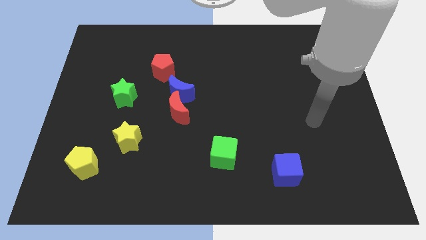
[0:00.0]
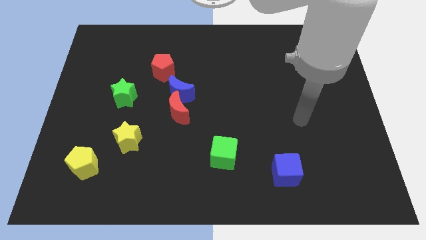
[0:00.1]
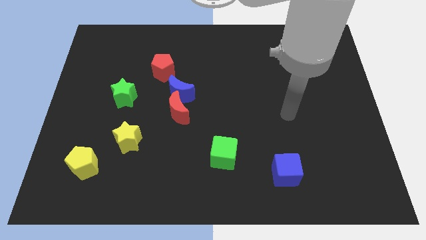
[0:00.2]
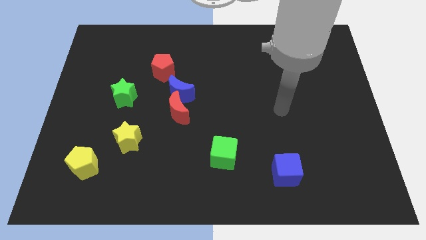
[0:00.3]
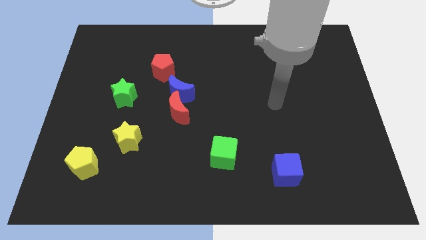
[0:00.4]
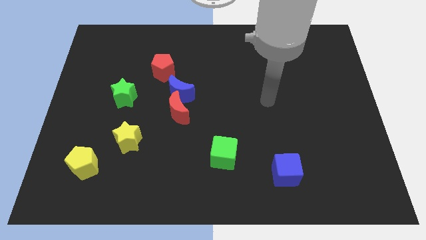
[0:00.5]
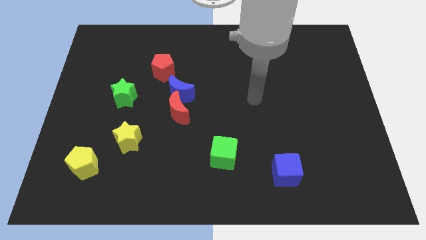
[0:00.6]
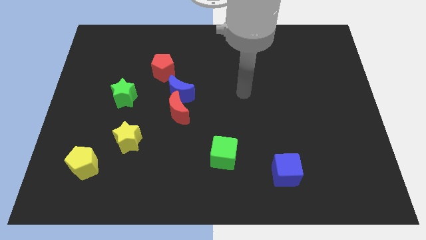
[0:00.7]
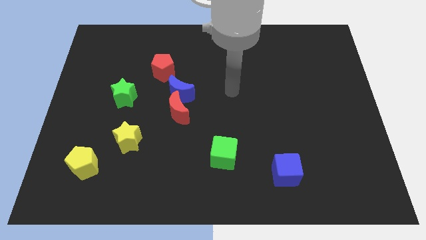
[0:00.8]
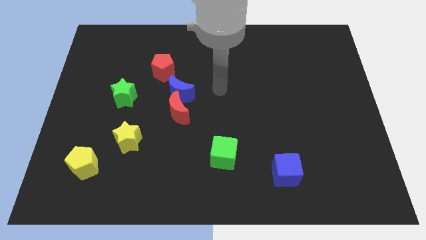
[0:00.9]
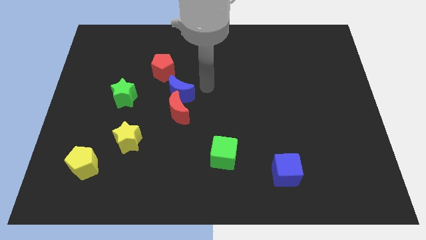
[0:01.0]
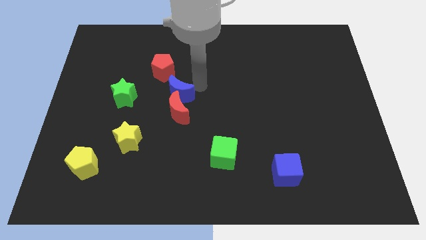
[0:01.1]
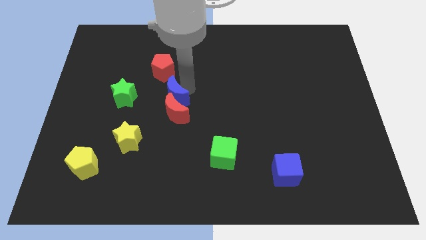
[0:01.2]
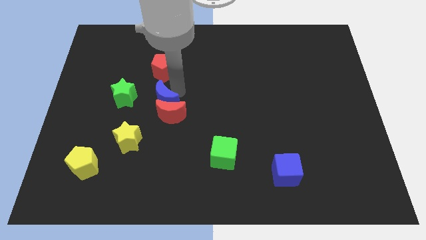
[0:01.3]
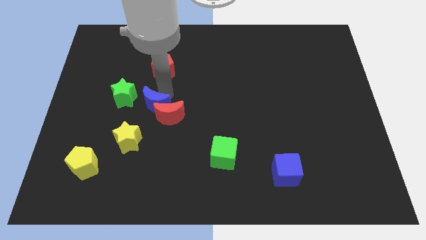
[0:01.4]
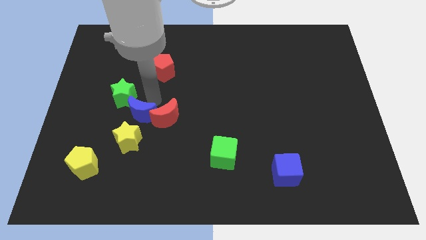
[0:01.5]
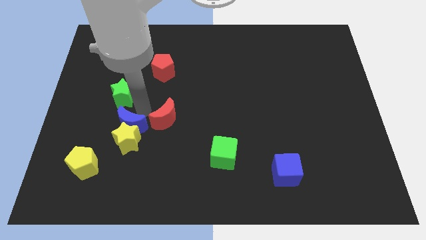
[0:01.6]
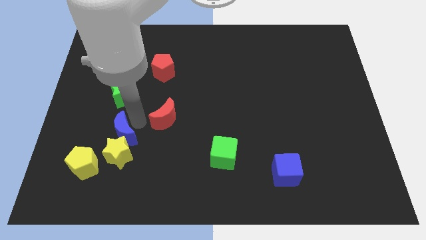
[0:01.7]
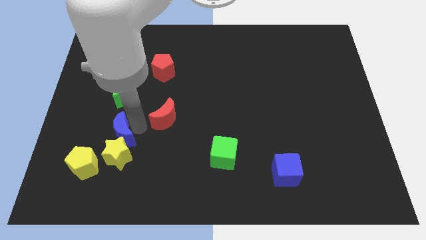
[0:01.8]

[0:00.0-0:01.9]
pull the red moon apart from the blue moon

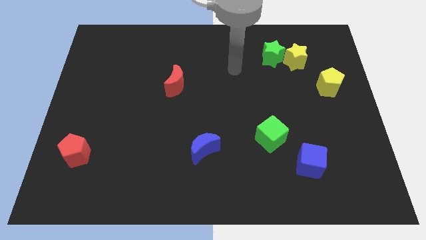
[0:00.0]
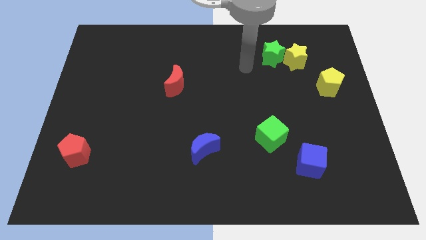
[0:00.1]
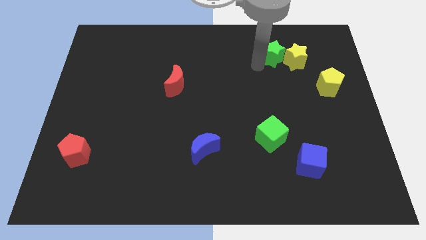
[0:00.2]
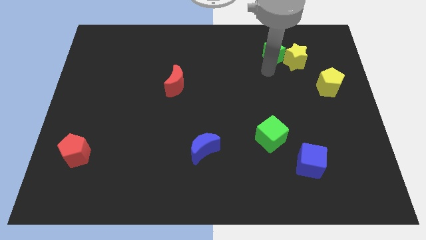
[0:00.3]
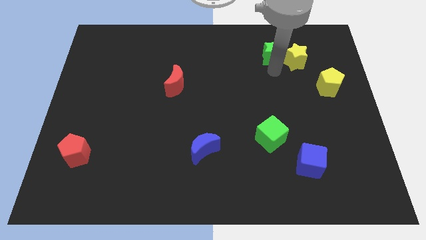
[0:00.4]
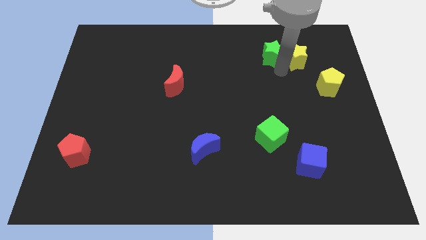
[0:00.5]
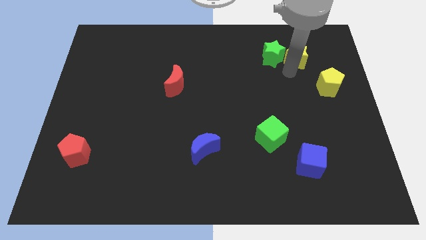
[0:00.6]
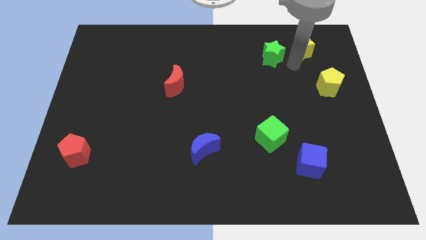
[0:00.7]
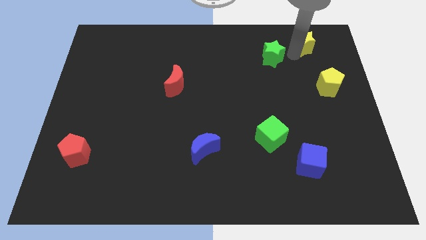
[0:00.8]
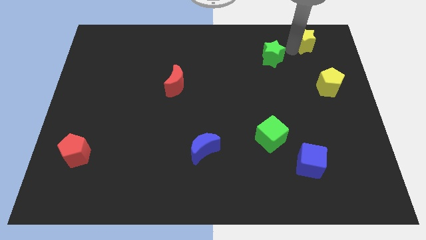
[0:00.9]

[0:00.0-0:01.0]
pull the green star apart from the yellow star

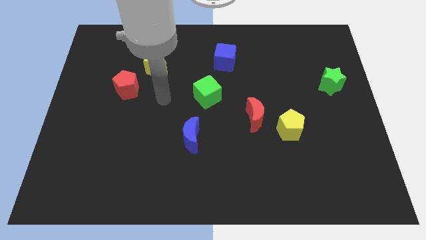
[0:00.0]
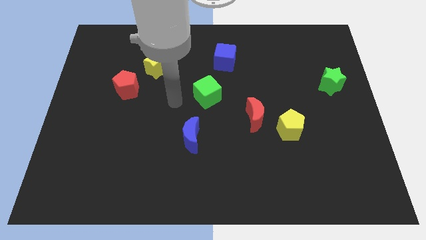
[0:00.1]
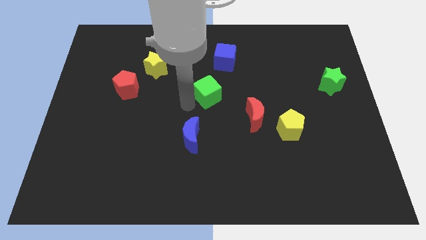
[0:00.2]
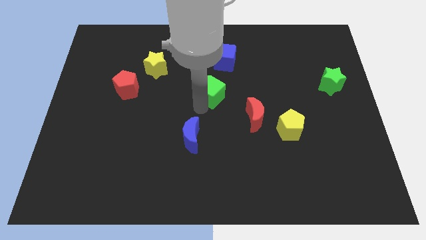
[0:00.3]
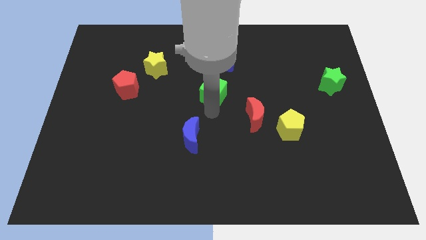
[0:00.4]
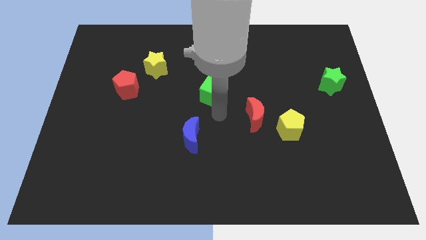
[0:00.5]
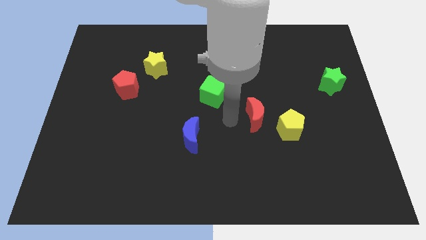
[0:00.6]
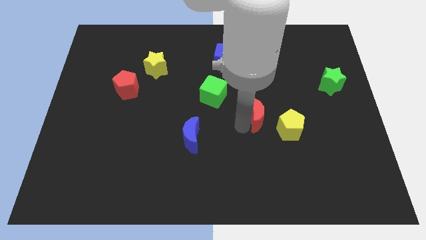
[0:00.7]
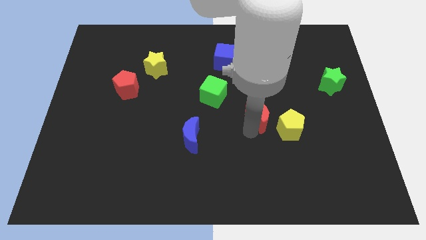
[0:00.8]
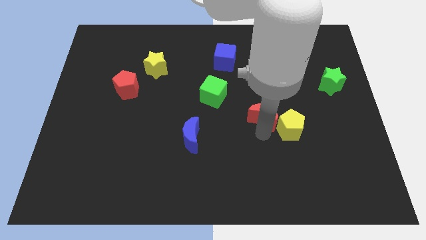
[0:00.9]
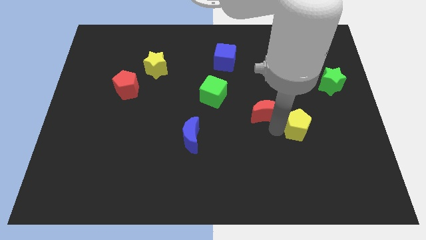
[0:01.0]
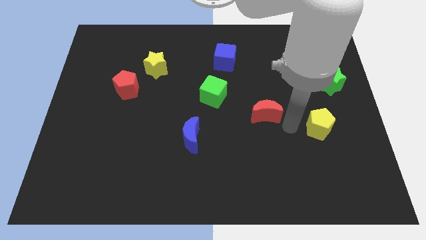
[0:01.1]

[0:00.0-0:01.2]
separate the red moon from the yellow pentagon

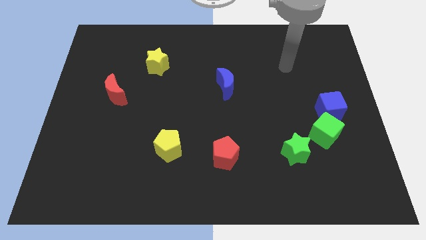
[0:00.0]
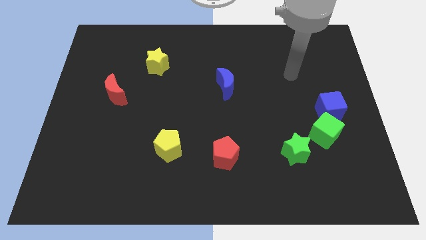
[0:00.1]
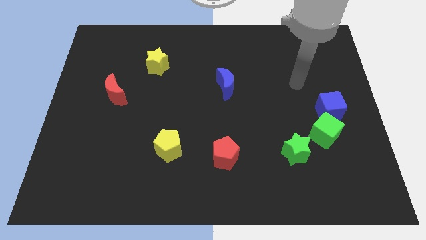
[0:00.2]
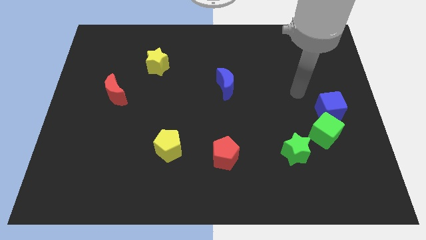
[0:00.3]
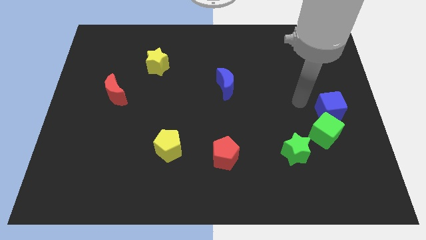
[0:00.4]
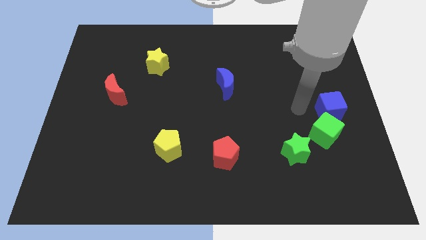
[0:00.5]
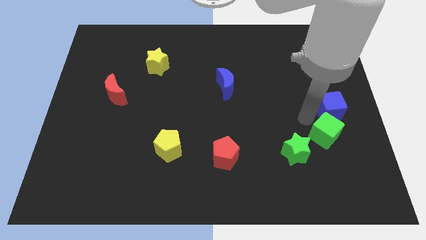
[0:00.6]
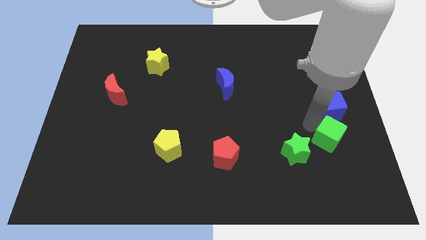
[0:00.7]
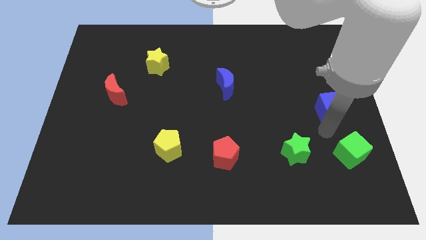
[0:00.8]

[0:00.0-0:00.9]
separate the blue cube from the green cube

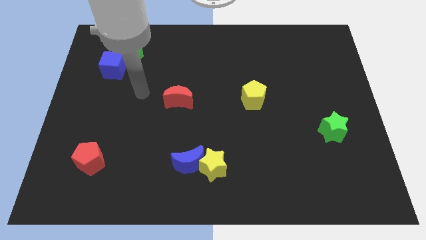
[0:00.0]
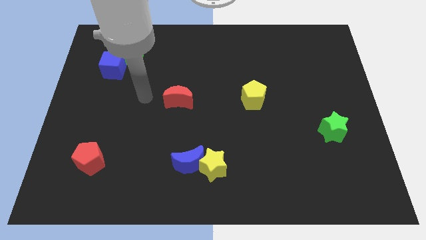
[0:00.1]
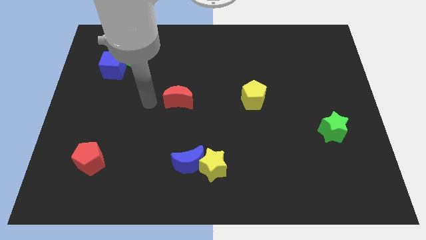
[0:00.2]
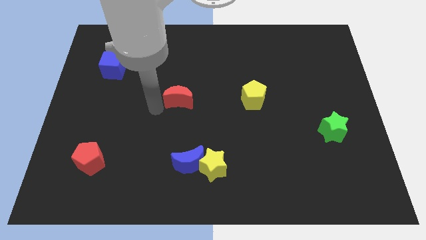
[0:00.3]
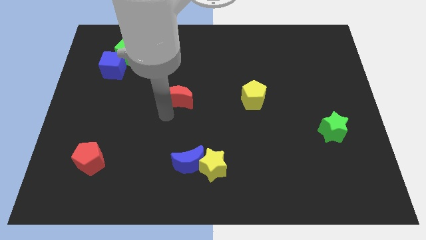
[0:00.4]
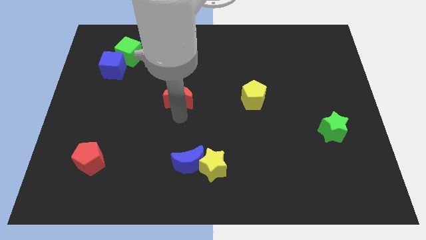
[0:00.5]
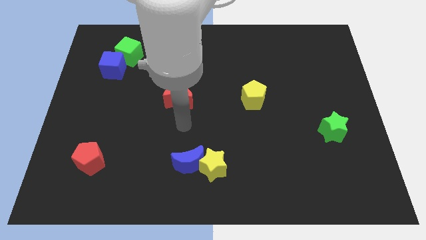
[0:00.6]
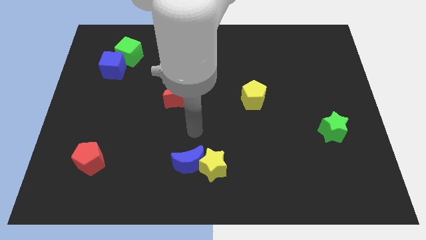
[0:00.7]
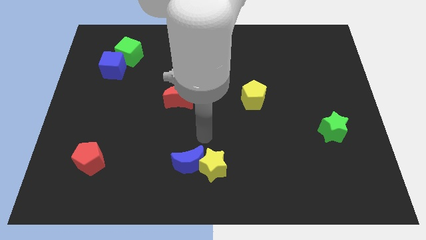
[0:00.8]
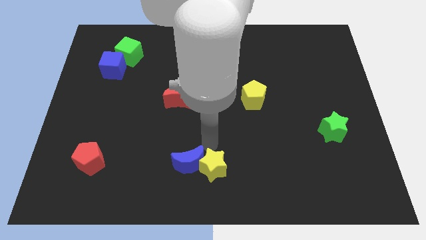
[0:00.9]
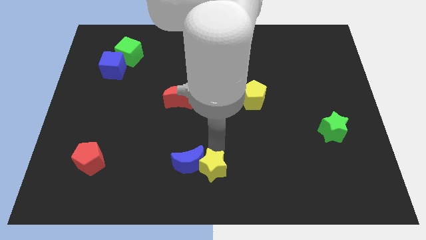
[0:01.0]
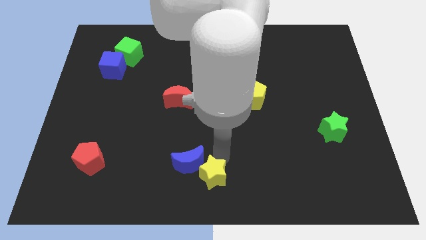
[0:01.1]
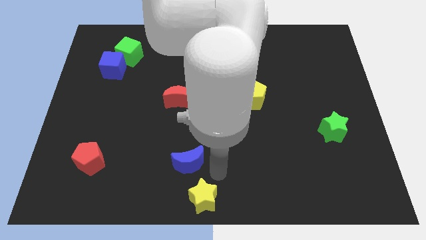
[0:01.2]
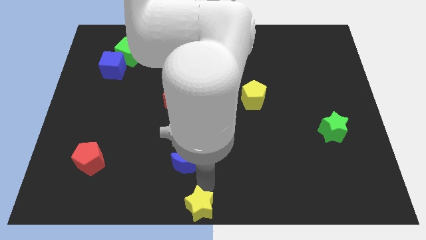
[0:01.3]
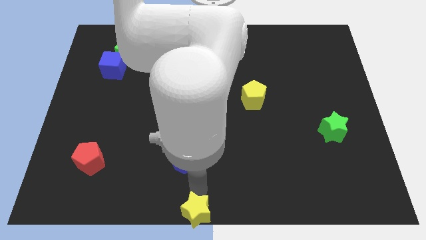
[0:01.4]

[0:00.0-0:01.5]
pull the blue moon apart from the yellow star

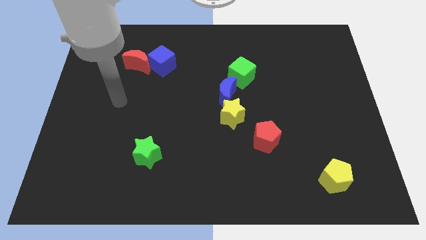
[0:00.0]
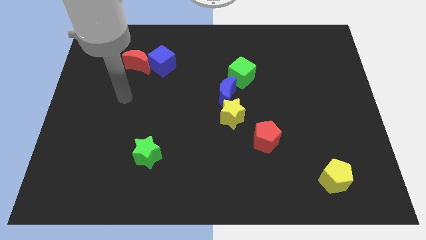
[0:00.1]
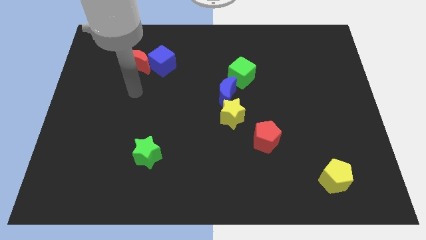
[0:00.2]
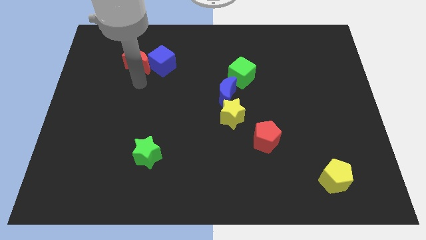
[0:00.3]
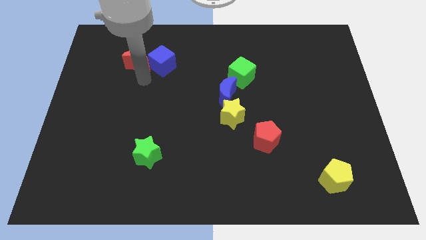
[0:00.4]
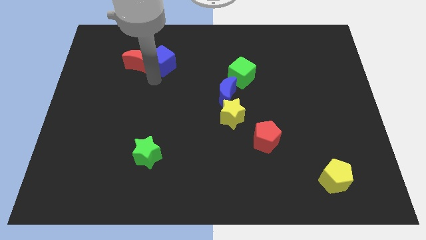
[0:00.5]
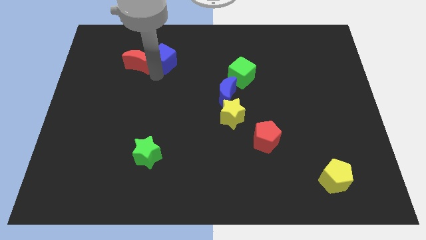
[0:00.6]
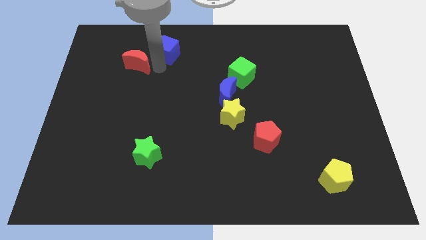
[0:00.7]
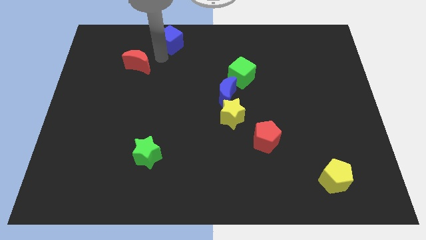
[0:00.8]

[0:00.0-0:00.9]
move the red moon away from the blue cube

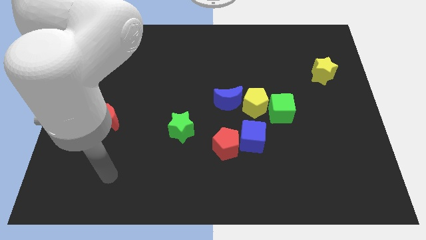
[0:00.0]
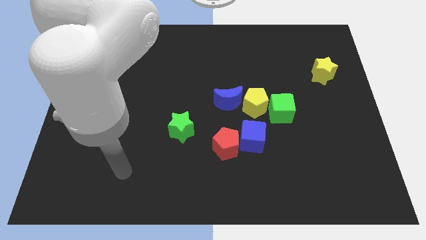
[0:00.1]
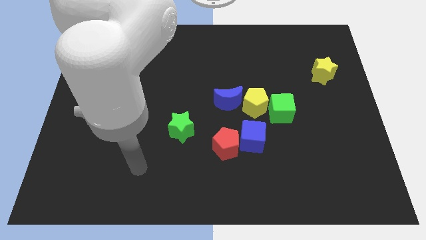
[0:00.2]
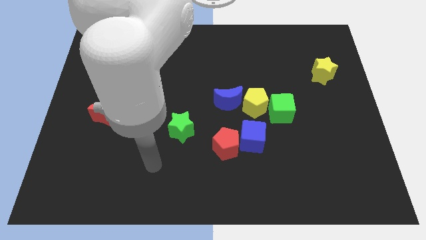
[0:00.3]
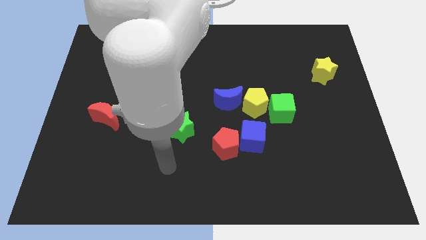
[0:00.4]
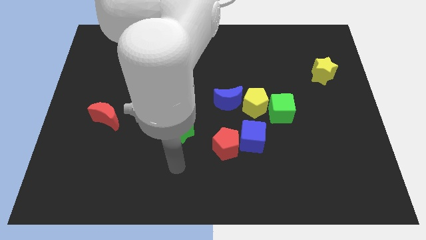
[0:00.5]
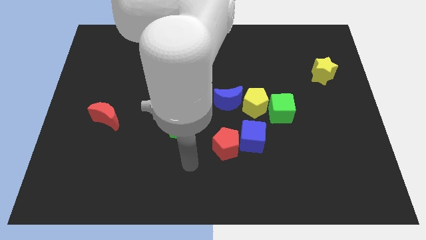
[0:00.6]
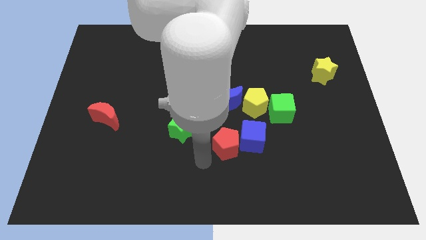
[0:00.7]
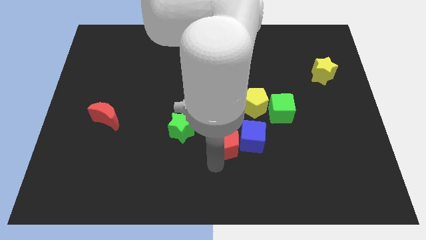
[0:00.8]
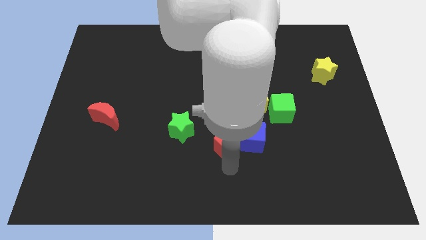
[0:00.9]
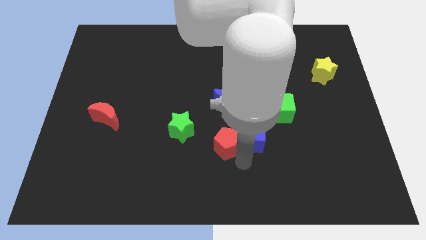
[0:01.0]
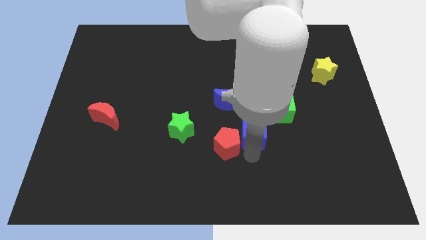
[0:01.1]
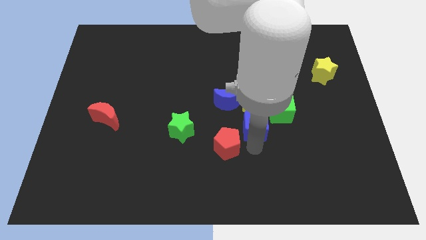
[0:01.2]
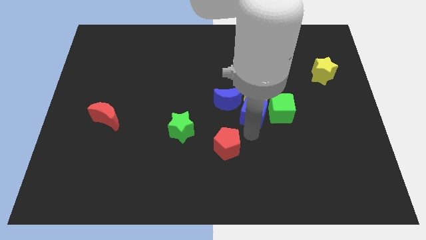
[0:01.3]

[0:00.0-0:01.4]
pull the red pentagon apart from the blue cube

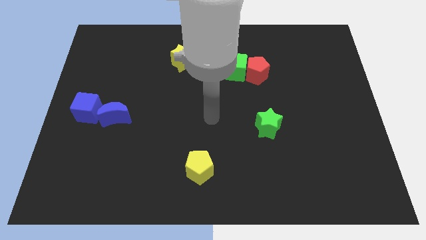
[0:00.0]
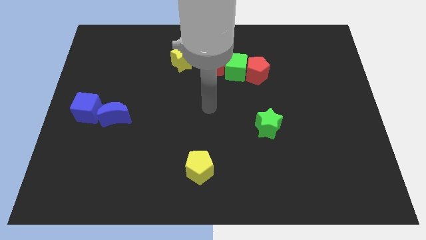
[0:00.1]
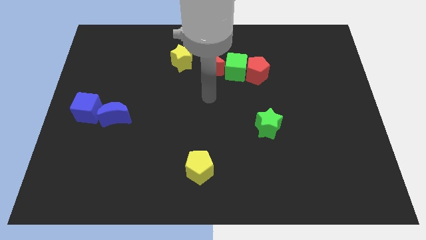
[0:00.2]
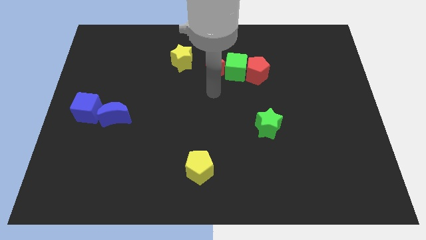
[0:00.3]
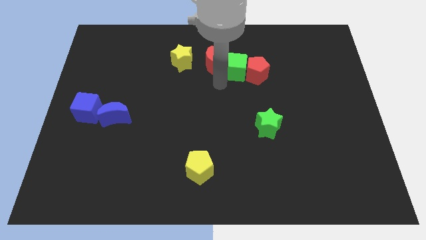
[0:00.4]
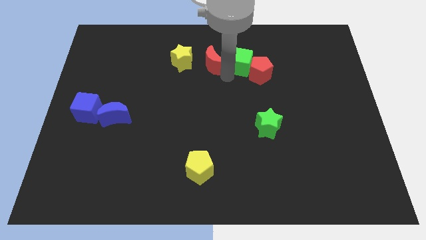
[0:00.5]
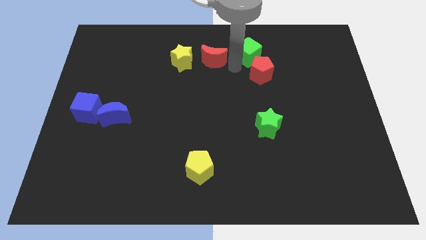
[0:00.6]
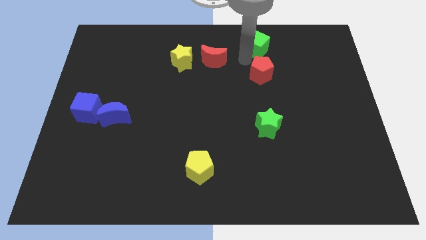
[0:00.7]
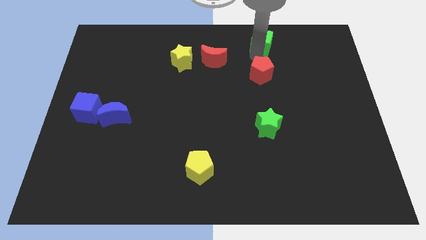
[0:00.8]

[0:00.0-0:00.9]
move the red pentagon away from the green cube
